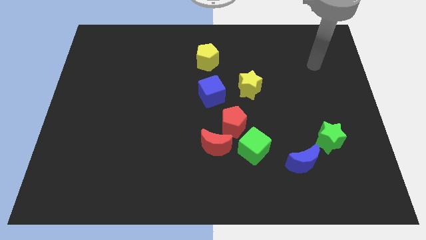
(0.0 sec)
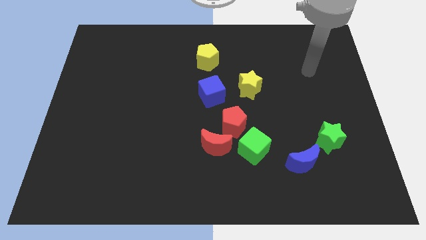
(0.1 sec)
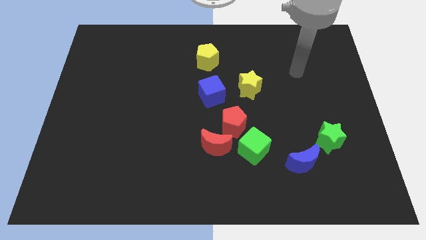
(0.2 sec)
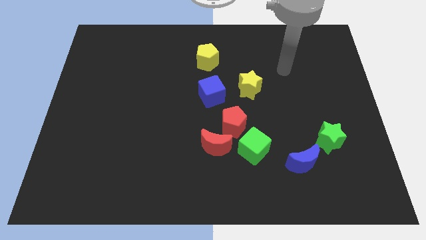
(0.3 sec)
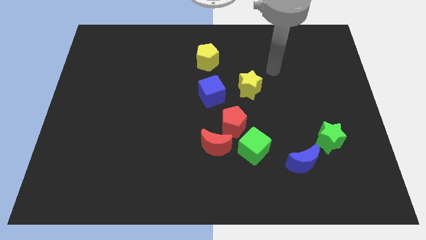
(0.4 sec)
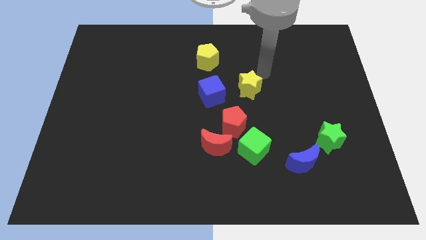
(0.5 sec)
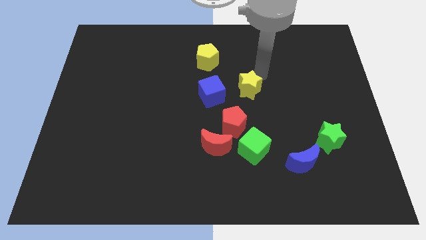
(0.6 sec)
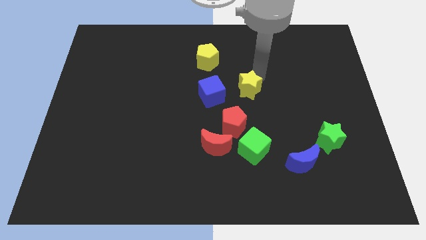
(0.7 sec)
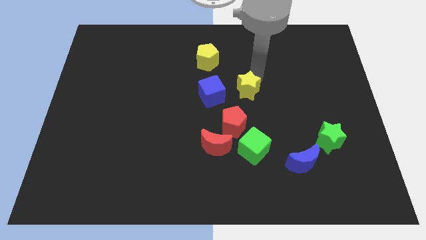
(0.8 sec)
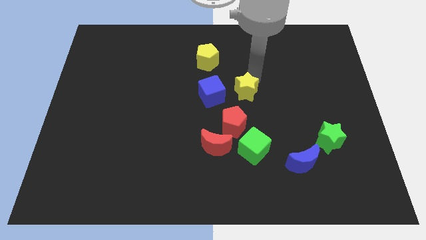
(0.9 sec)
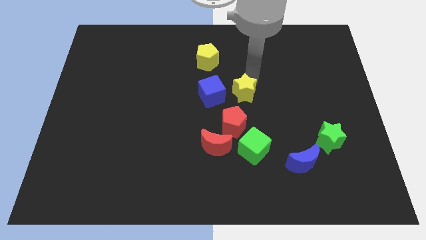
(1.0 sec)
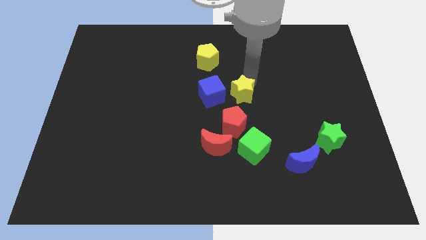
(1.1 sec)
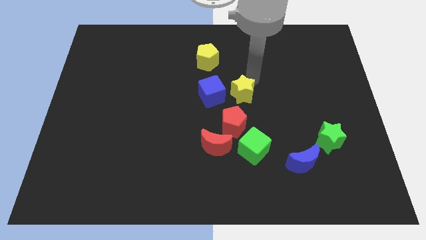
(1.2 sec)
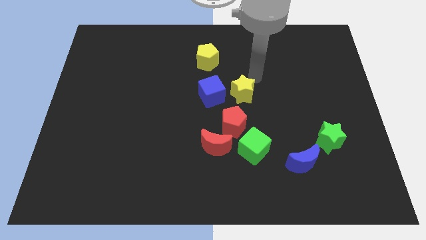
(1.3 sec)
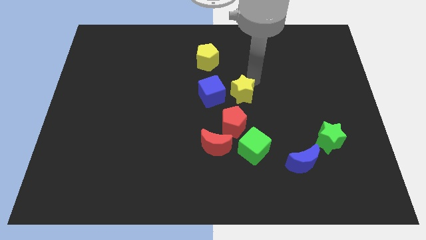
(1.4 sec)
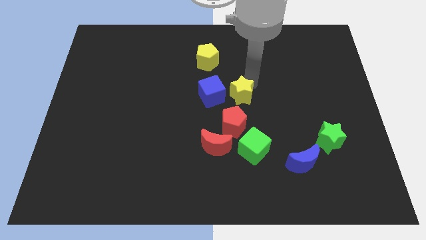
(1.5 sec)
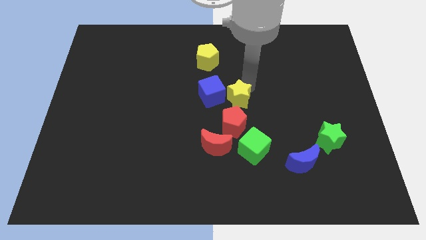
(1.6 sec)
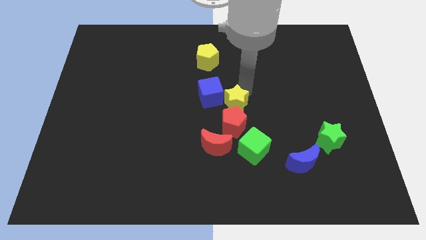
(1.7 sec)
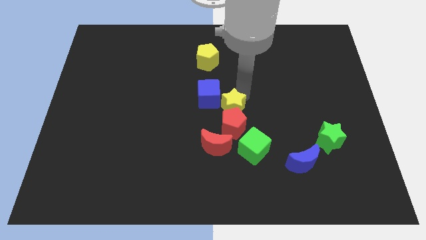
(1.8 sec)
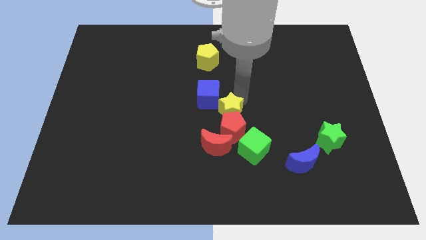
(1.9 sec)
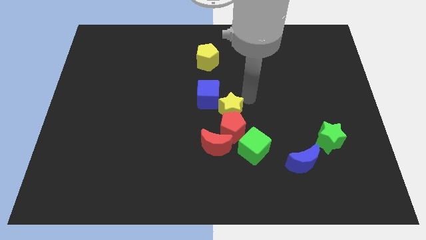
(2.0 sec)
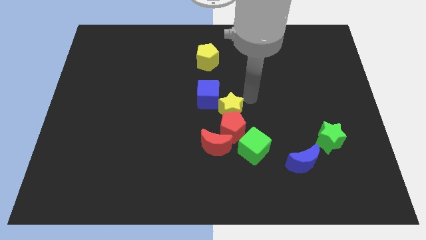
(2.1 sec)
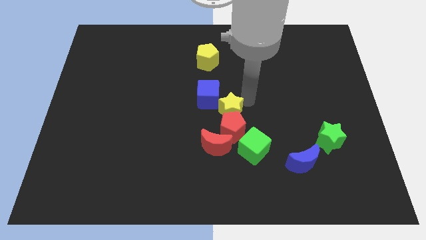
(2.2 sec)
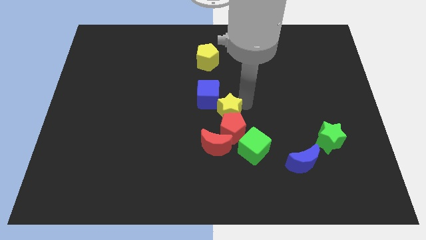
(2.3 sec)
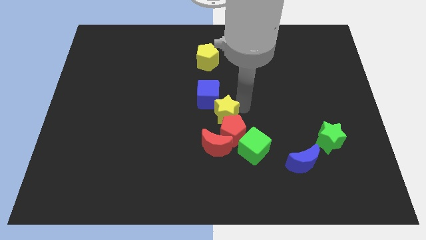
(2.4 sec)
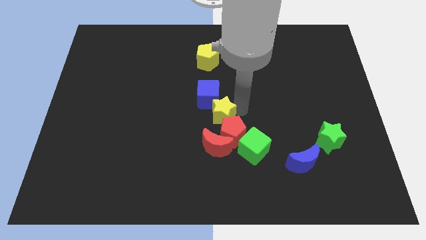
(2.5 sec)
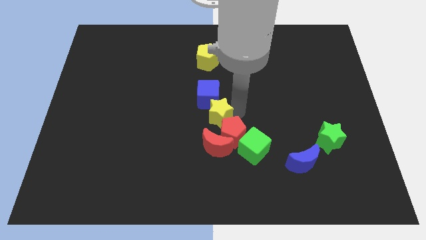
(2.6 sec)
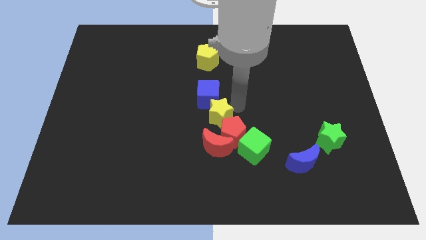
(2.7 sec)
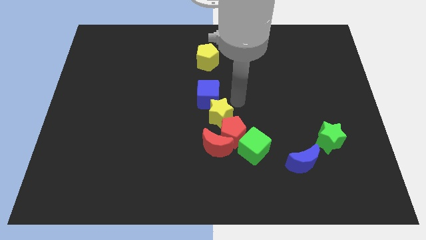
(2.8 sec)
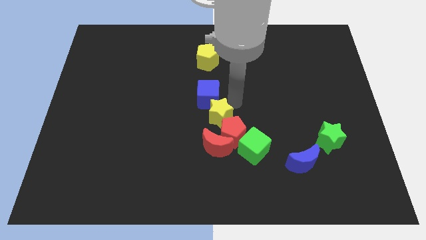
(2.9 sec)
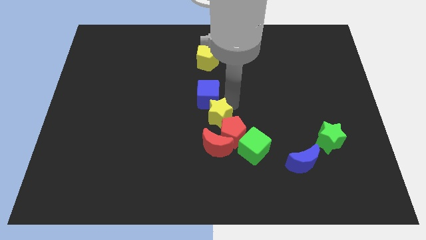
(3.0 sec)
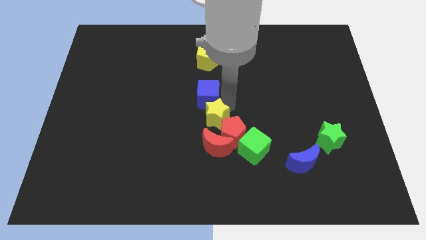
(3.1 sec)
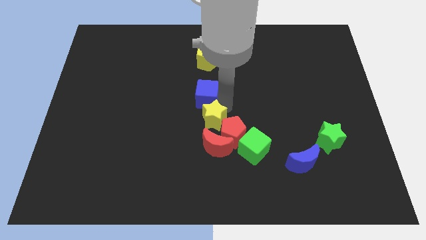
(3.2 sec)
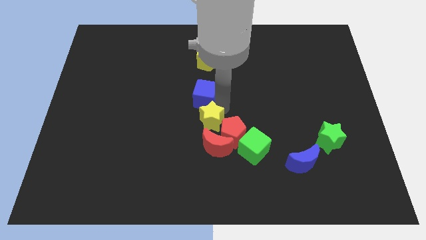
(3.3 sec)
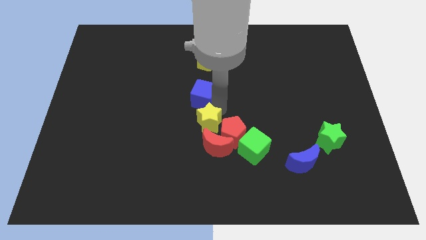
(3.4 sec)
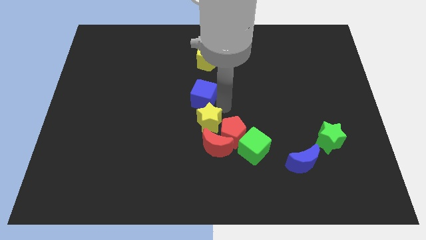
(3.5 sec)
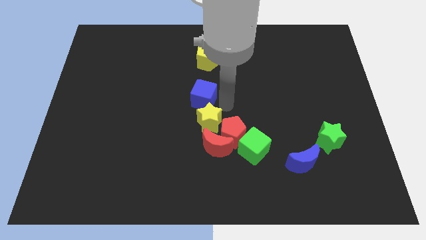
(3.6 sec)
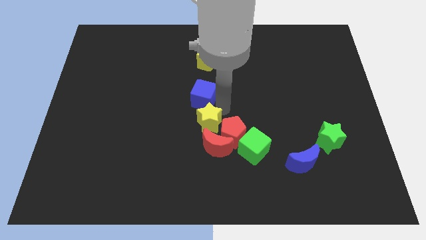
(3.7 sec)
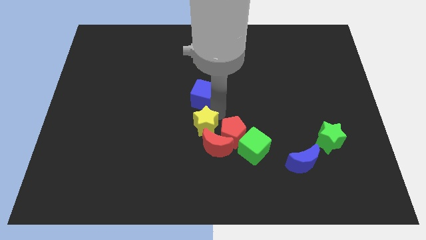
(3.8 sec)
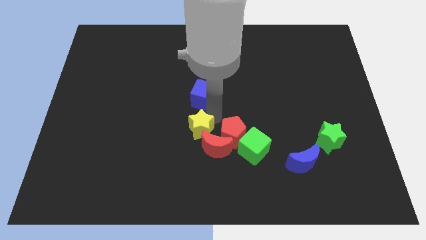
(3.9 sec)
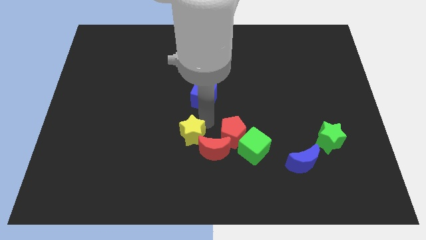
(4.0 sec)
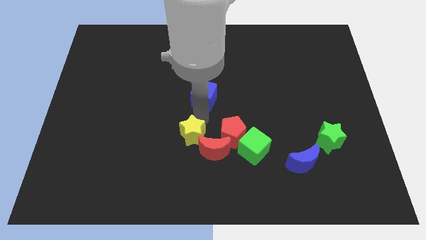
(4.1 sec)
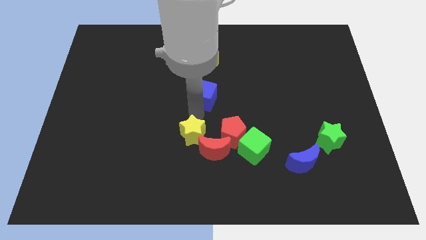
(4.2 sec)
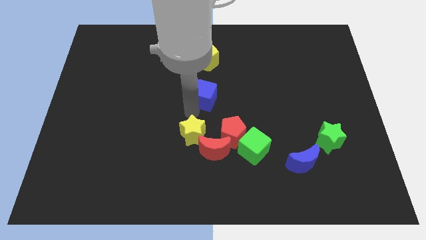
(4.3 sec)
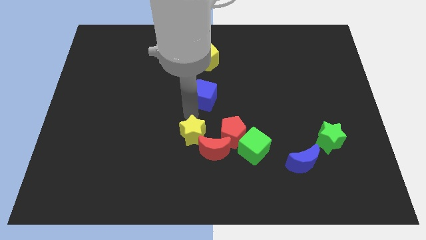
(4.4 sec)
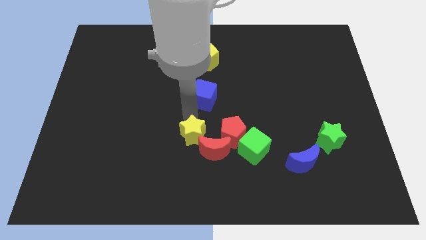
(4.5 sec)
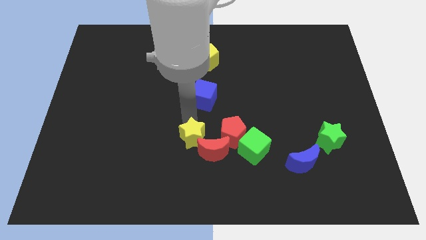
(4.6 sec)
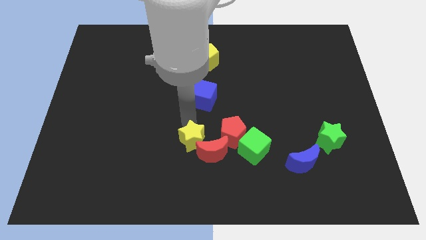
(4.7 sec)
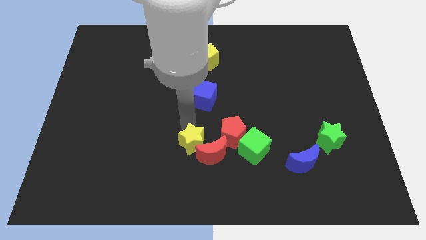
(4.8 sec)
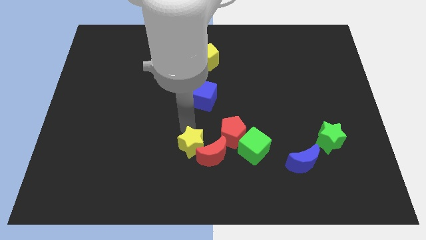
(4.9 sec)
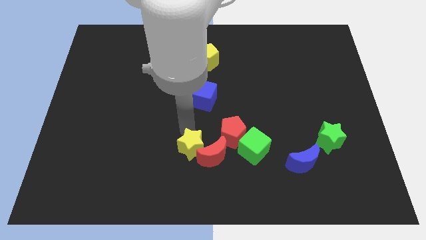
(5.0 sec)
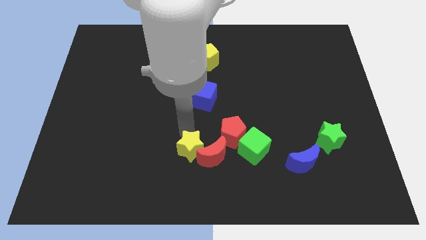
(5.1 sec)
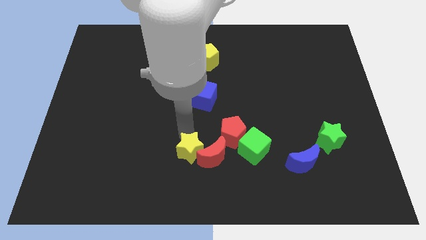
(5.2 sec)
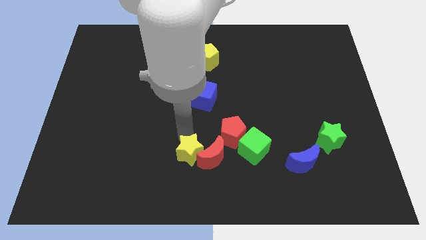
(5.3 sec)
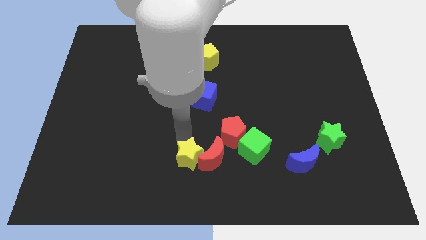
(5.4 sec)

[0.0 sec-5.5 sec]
slide the yellow star to the bottom

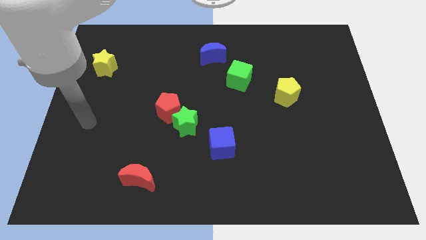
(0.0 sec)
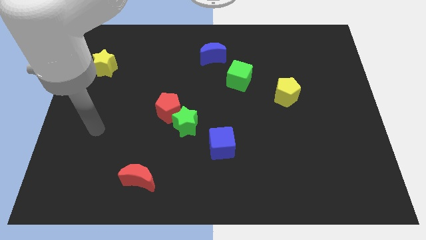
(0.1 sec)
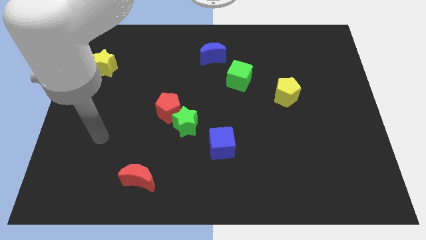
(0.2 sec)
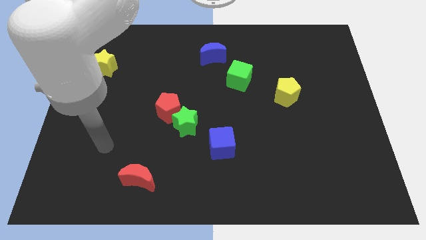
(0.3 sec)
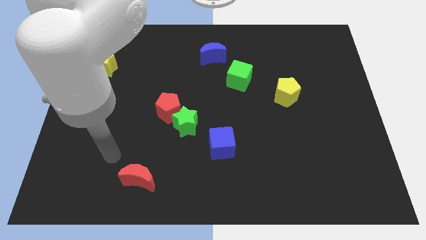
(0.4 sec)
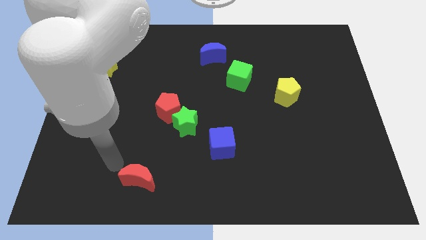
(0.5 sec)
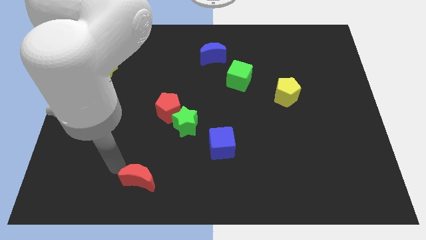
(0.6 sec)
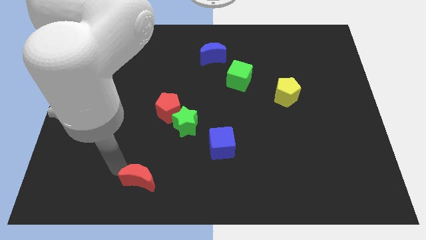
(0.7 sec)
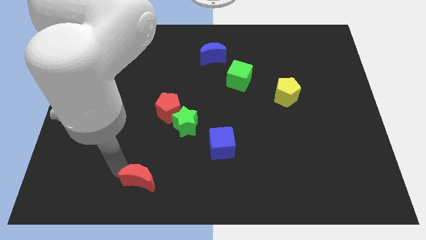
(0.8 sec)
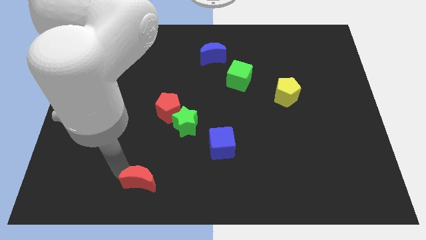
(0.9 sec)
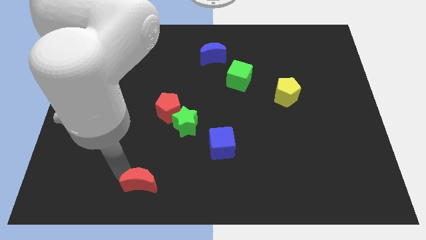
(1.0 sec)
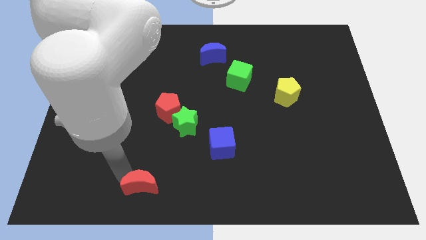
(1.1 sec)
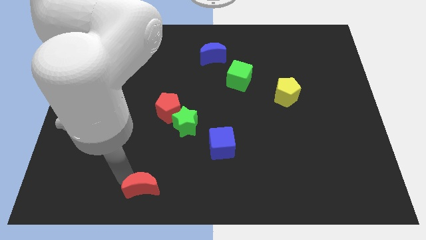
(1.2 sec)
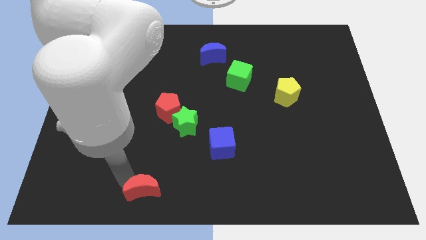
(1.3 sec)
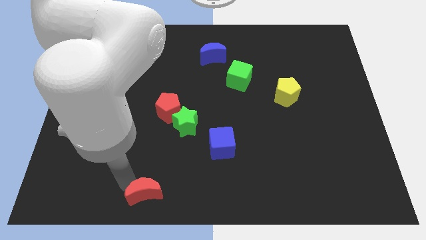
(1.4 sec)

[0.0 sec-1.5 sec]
push the red moon to the bottom
